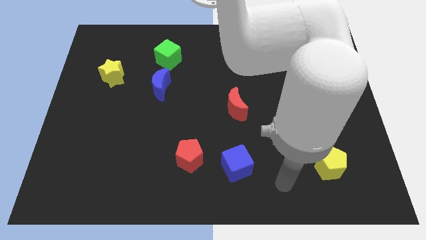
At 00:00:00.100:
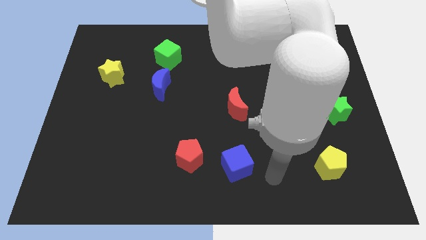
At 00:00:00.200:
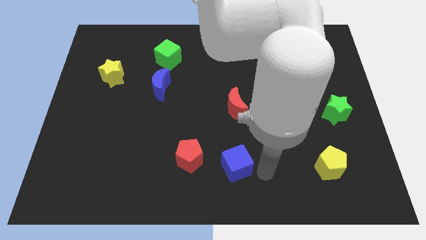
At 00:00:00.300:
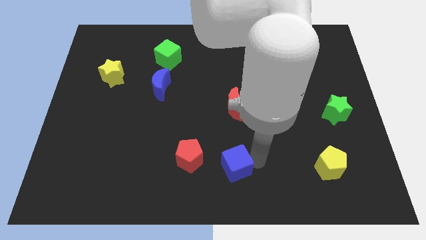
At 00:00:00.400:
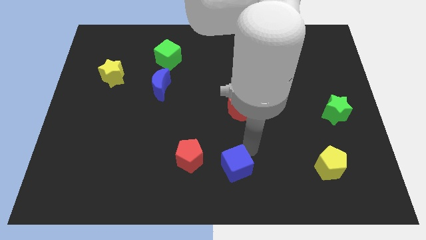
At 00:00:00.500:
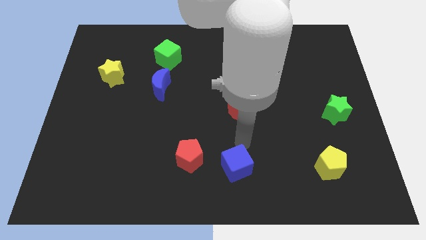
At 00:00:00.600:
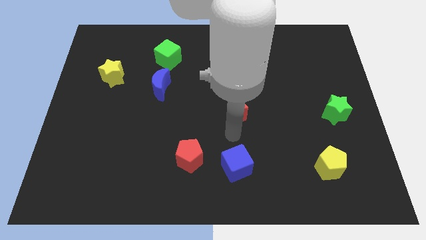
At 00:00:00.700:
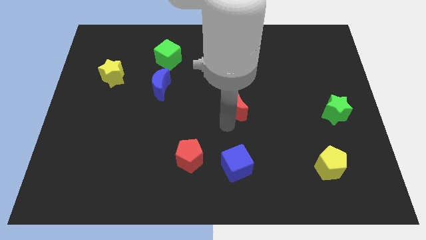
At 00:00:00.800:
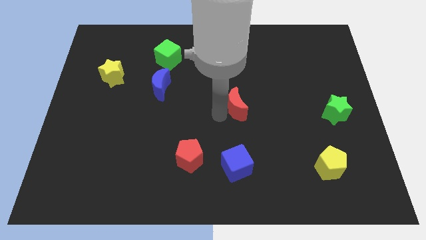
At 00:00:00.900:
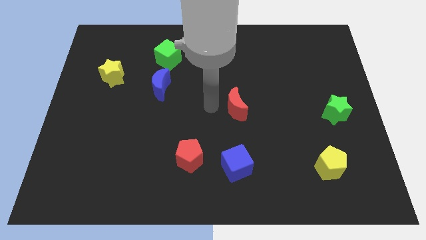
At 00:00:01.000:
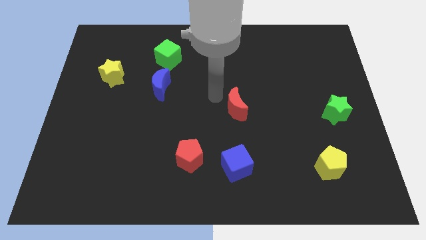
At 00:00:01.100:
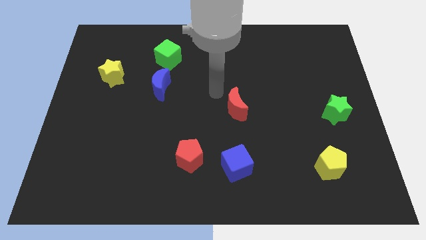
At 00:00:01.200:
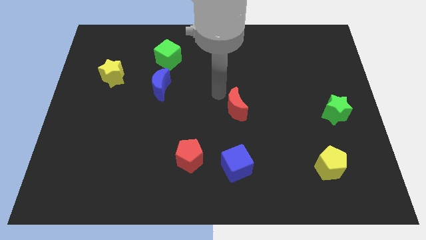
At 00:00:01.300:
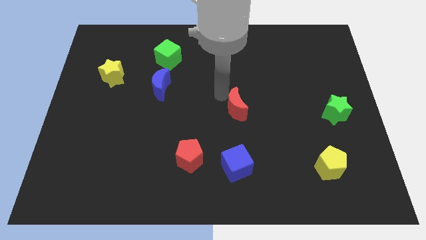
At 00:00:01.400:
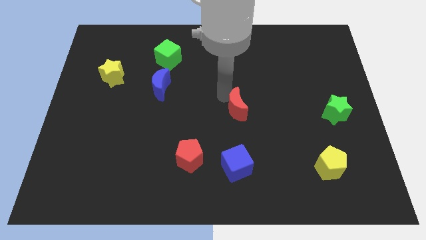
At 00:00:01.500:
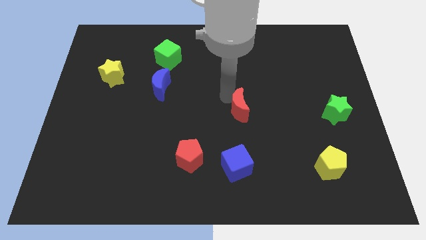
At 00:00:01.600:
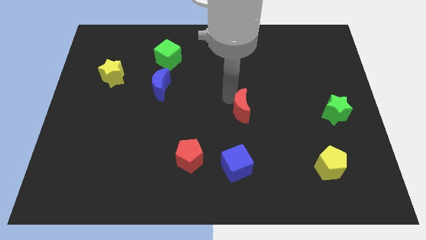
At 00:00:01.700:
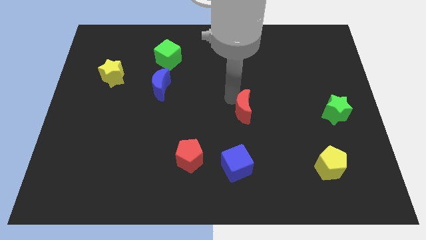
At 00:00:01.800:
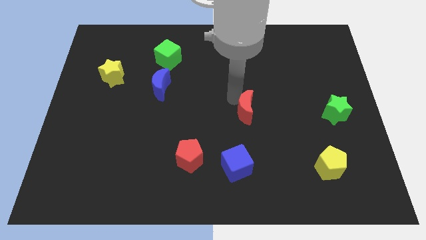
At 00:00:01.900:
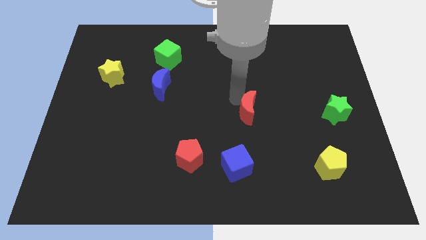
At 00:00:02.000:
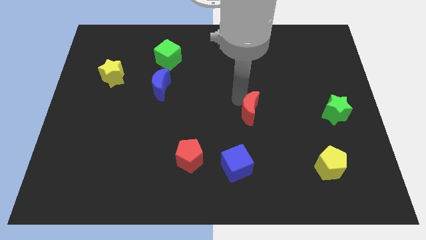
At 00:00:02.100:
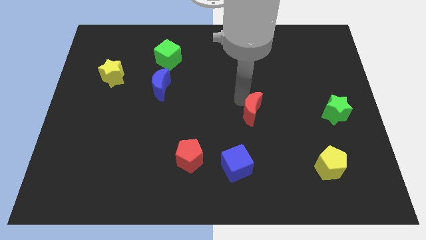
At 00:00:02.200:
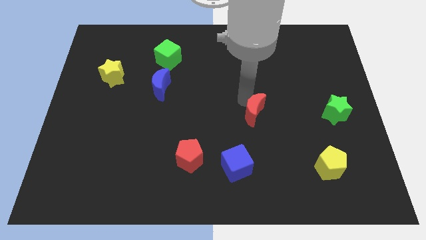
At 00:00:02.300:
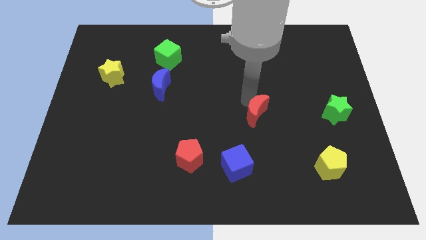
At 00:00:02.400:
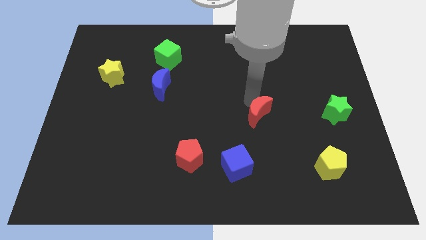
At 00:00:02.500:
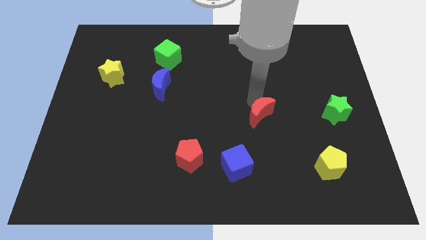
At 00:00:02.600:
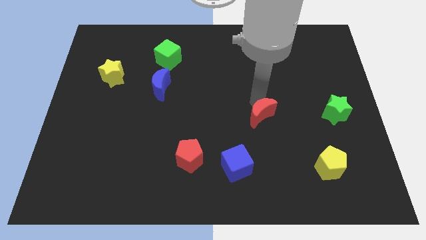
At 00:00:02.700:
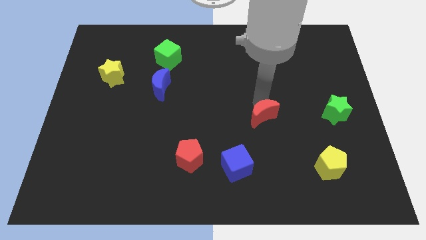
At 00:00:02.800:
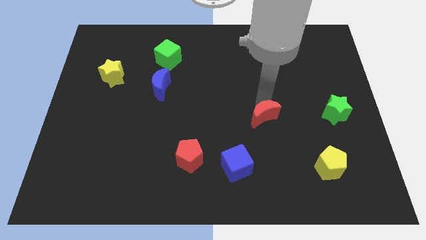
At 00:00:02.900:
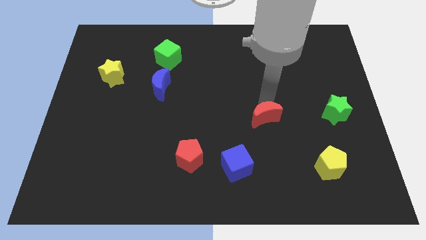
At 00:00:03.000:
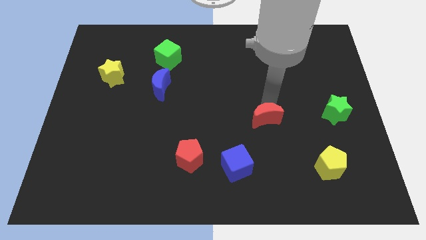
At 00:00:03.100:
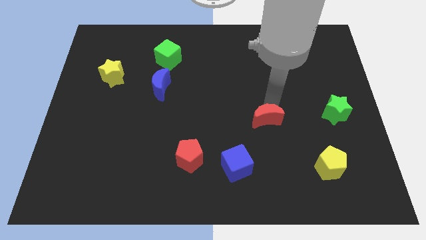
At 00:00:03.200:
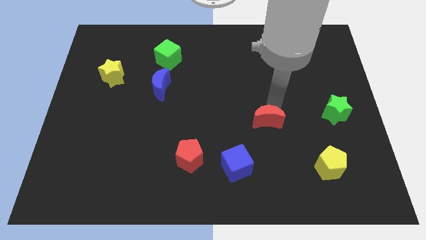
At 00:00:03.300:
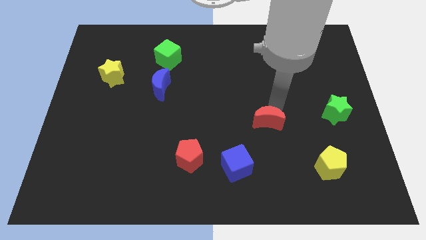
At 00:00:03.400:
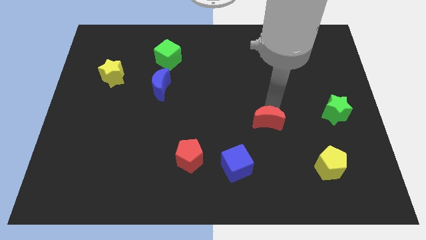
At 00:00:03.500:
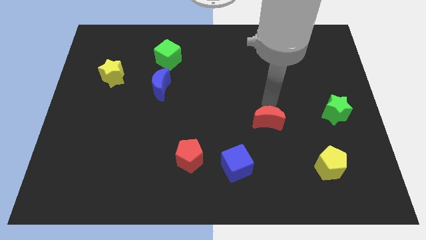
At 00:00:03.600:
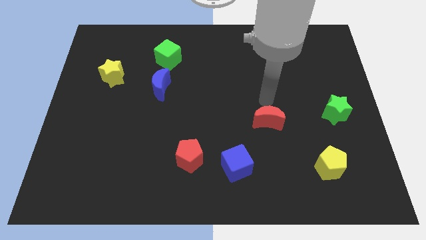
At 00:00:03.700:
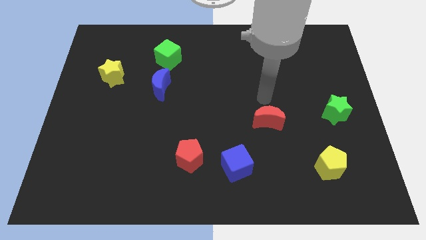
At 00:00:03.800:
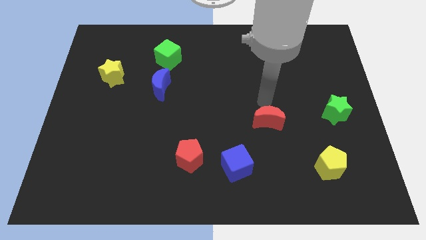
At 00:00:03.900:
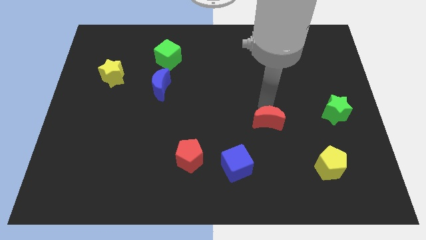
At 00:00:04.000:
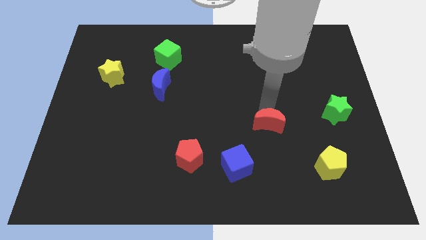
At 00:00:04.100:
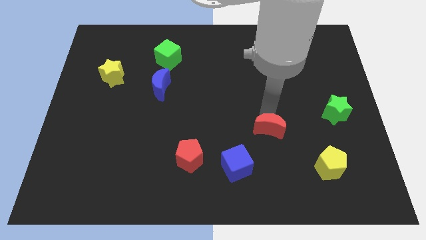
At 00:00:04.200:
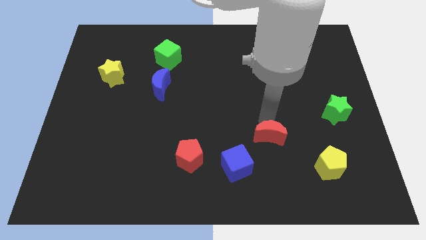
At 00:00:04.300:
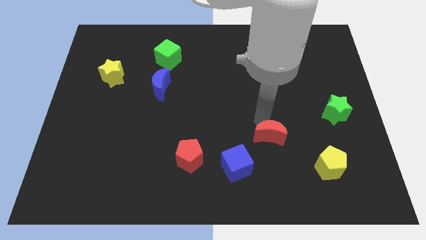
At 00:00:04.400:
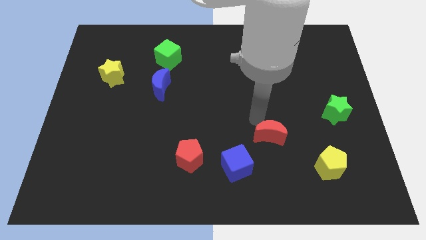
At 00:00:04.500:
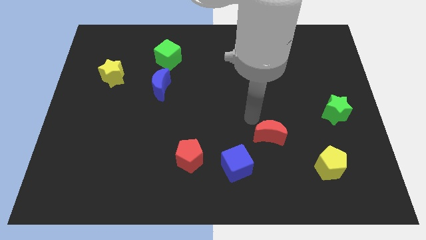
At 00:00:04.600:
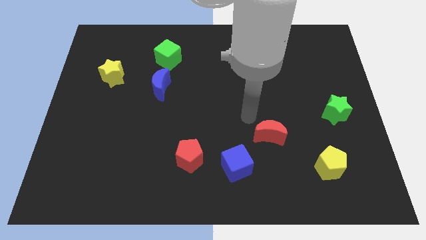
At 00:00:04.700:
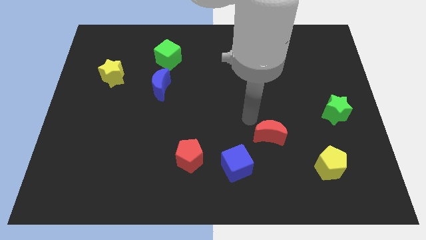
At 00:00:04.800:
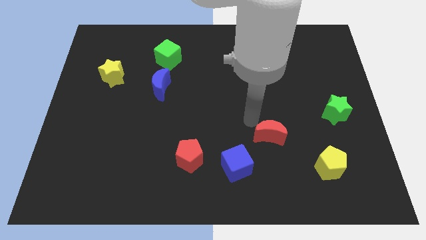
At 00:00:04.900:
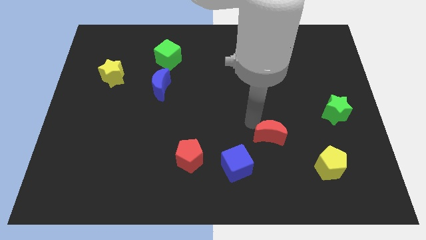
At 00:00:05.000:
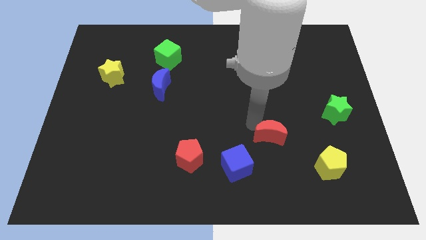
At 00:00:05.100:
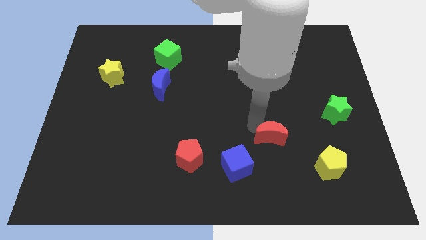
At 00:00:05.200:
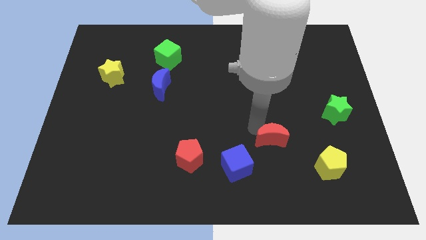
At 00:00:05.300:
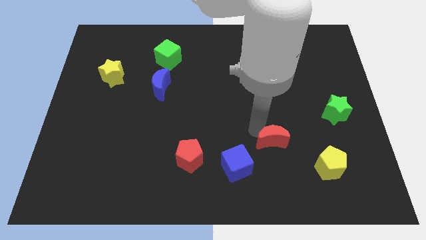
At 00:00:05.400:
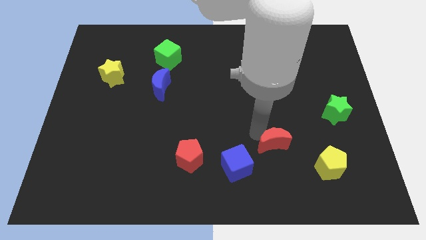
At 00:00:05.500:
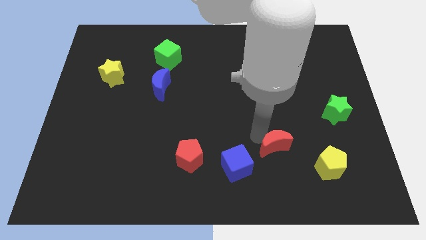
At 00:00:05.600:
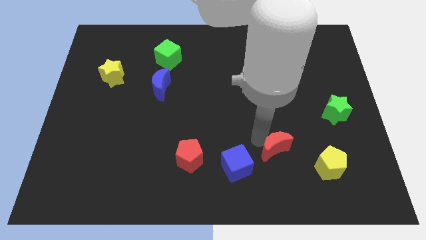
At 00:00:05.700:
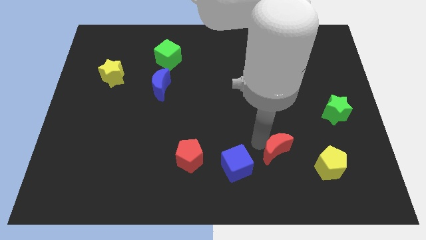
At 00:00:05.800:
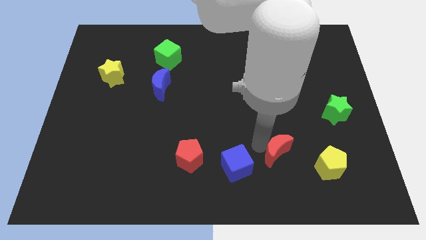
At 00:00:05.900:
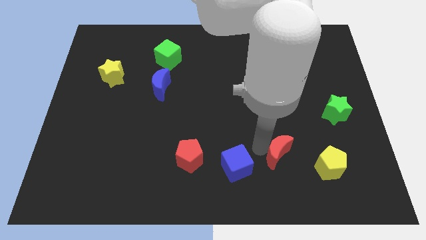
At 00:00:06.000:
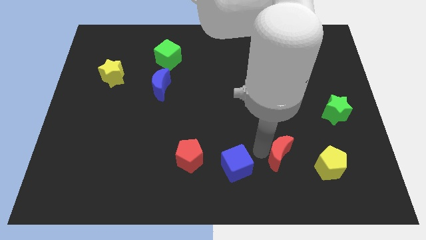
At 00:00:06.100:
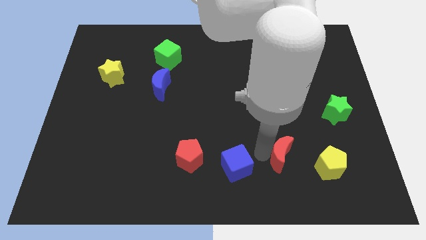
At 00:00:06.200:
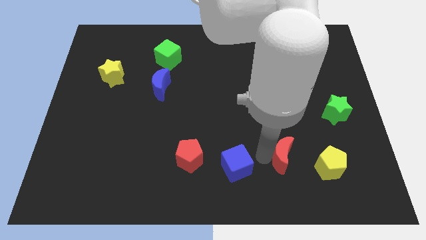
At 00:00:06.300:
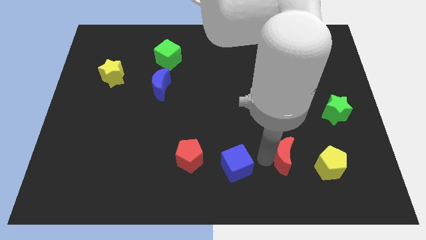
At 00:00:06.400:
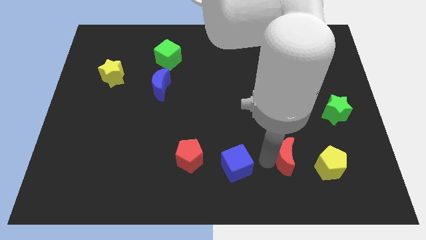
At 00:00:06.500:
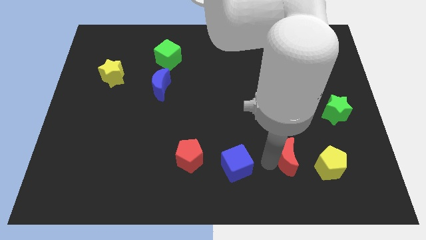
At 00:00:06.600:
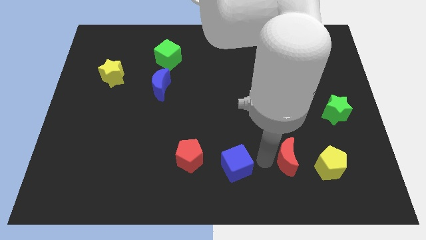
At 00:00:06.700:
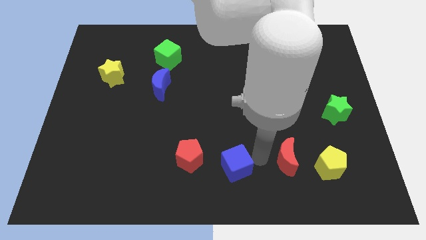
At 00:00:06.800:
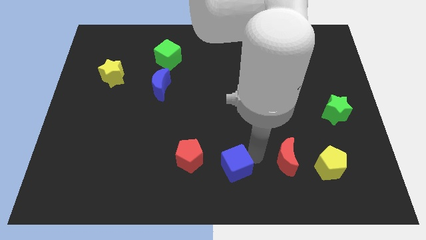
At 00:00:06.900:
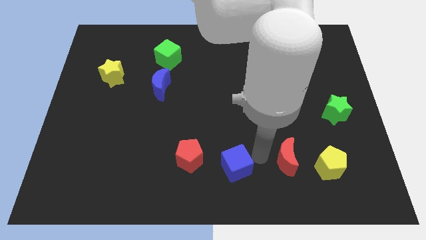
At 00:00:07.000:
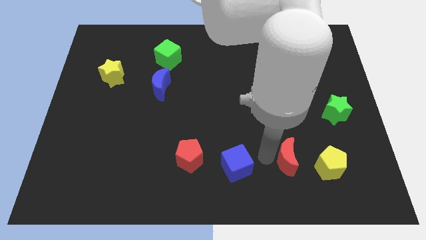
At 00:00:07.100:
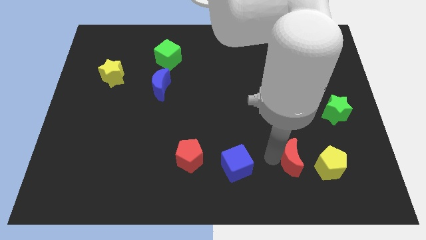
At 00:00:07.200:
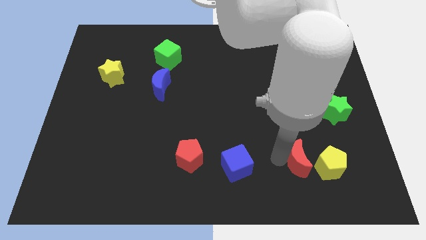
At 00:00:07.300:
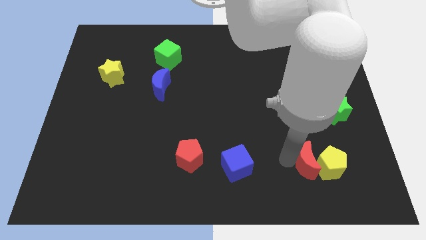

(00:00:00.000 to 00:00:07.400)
put the red moon towards the yellow pentagon
